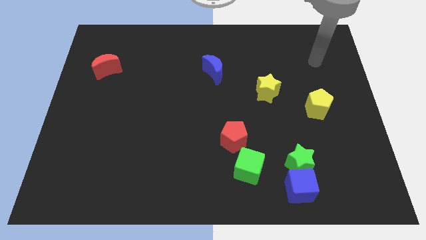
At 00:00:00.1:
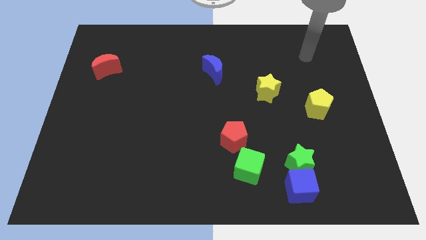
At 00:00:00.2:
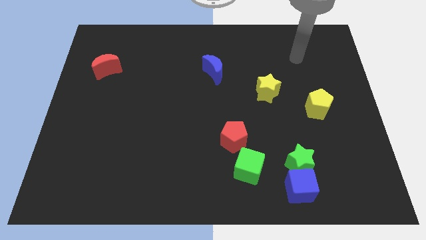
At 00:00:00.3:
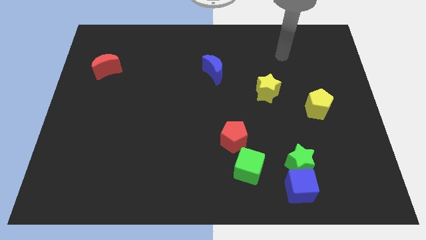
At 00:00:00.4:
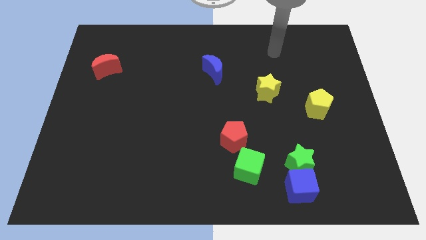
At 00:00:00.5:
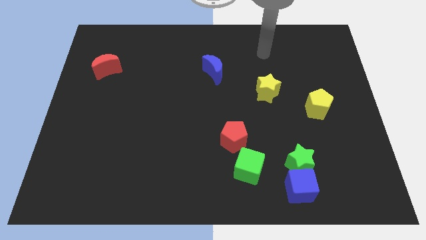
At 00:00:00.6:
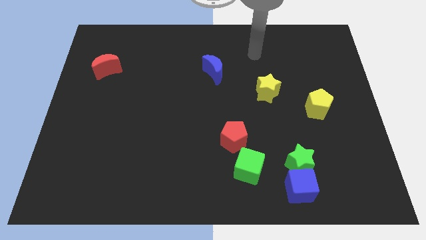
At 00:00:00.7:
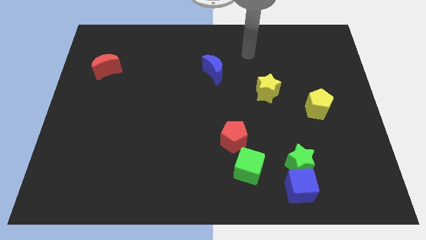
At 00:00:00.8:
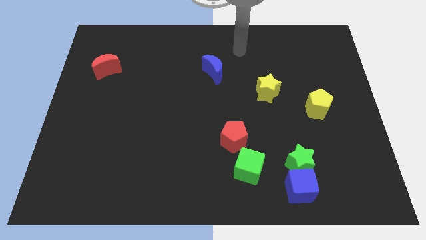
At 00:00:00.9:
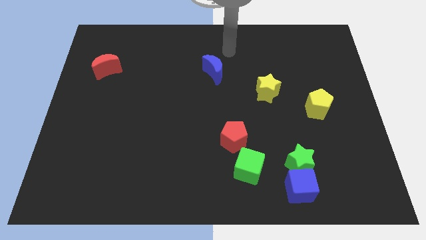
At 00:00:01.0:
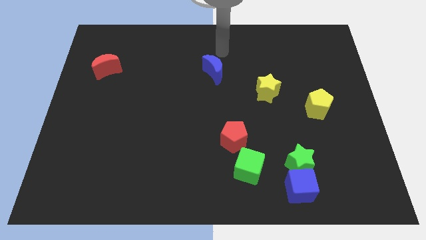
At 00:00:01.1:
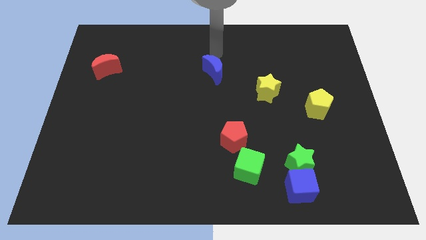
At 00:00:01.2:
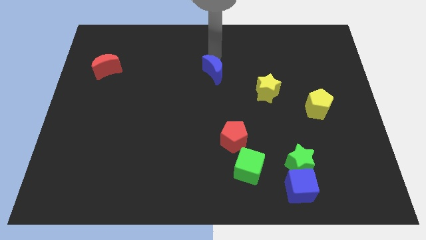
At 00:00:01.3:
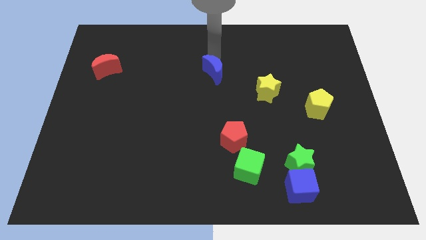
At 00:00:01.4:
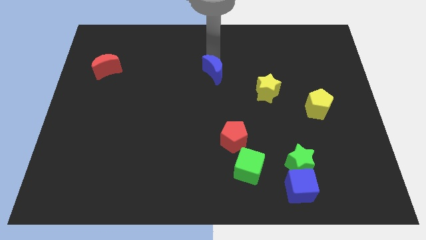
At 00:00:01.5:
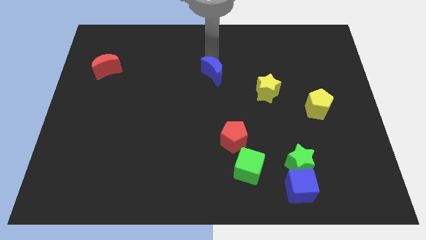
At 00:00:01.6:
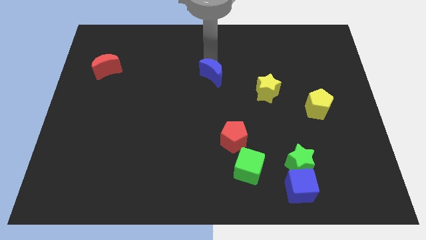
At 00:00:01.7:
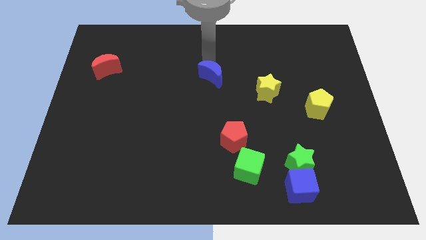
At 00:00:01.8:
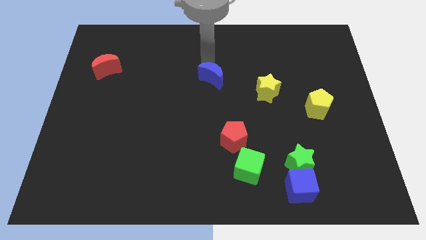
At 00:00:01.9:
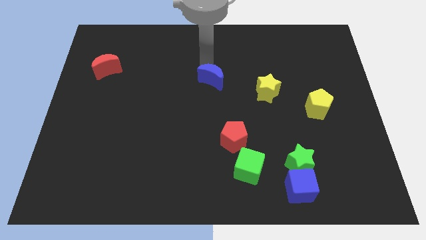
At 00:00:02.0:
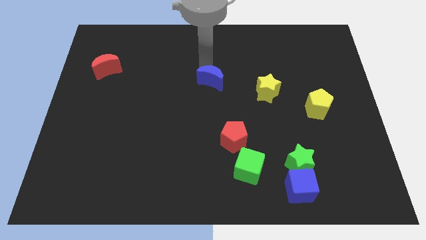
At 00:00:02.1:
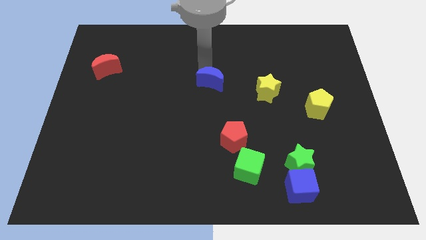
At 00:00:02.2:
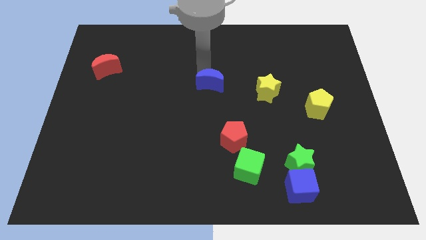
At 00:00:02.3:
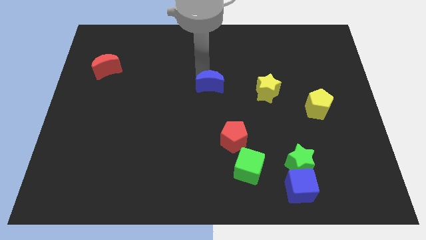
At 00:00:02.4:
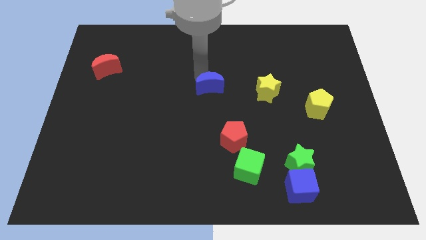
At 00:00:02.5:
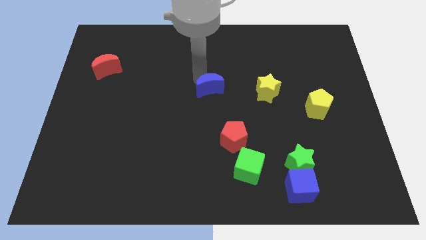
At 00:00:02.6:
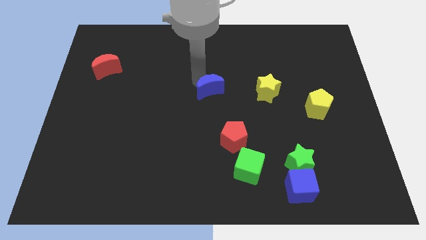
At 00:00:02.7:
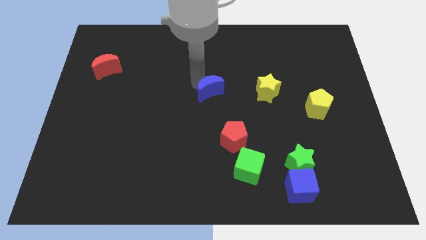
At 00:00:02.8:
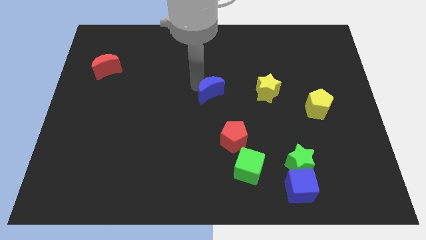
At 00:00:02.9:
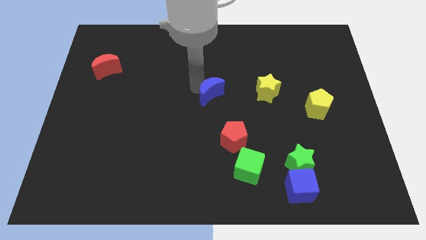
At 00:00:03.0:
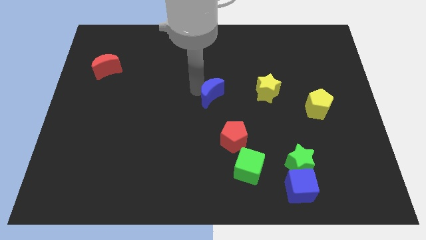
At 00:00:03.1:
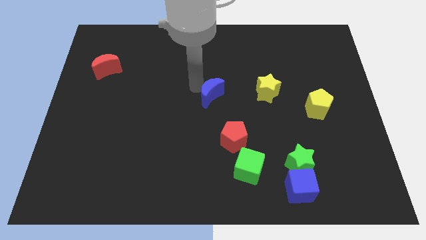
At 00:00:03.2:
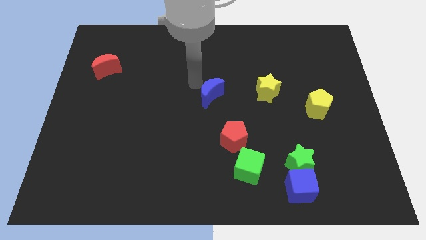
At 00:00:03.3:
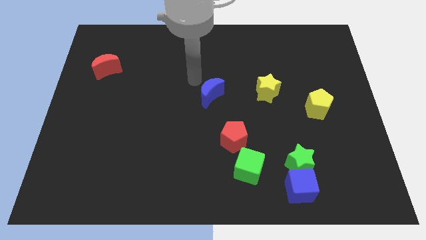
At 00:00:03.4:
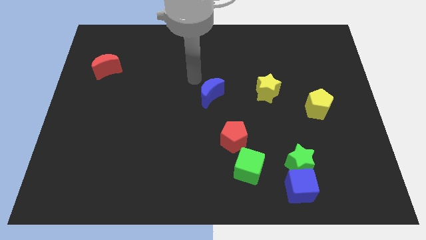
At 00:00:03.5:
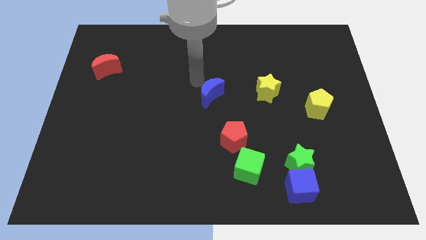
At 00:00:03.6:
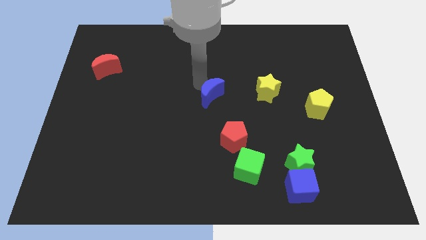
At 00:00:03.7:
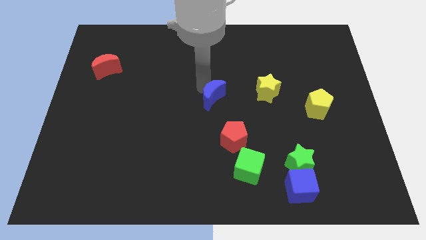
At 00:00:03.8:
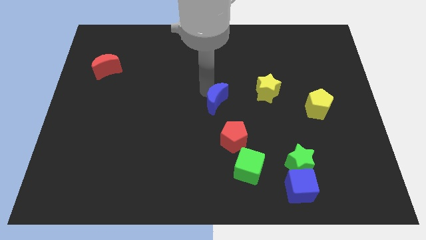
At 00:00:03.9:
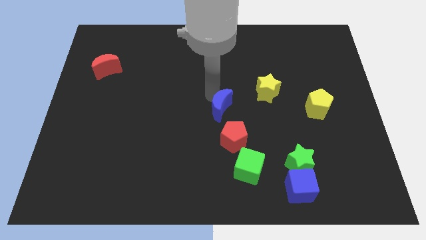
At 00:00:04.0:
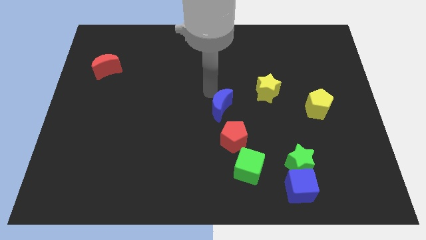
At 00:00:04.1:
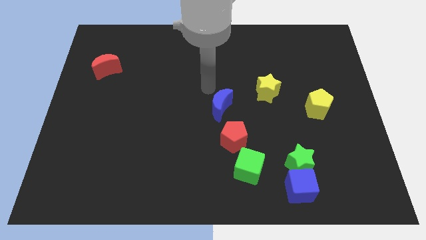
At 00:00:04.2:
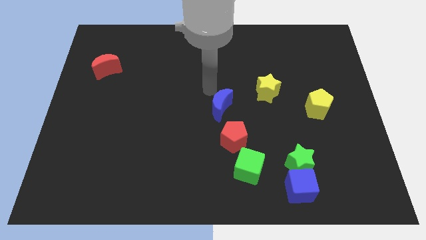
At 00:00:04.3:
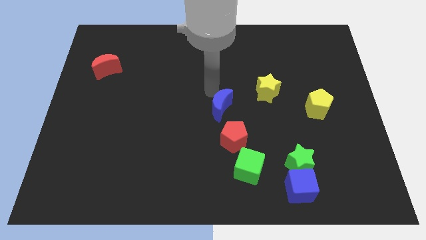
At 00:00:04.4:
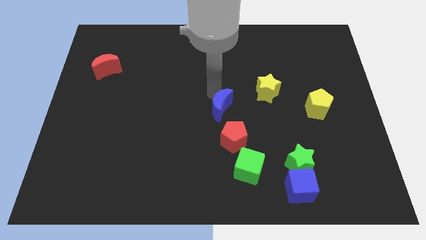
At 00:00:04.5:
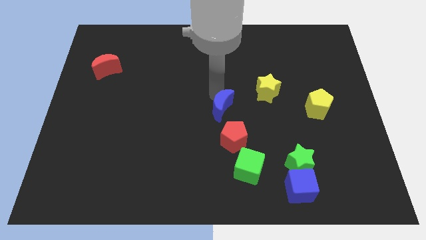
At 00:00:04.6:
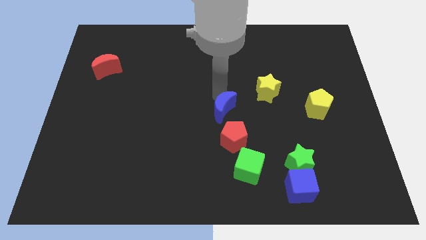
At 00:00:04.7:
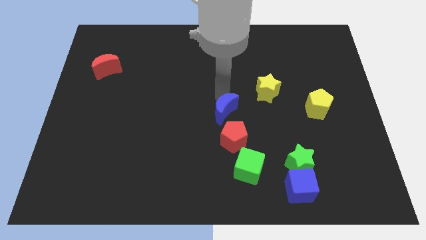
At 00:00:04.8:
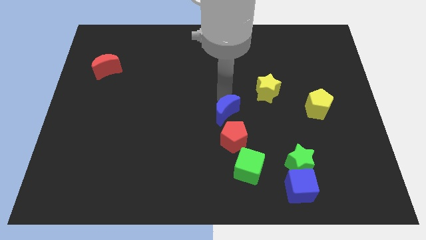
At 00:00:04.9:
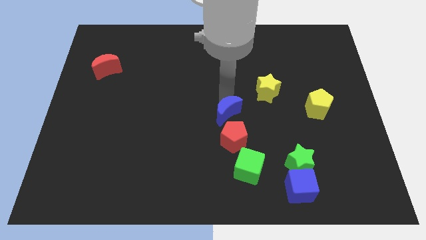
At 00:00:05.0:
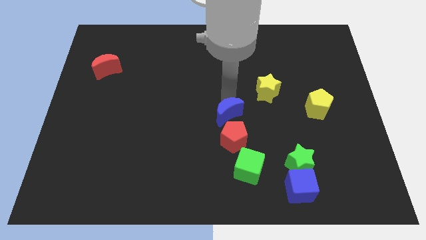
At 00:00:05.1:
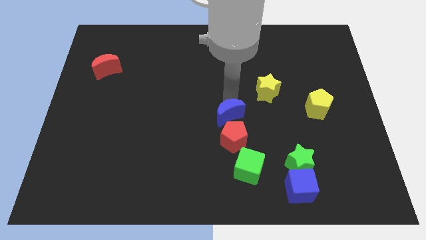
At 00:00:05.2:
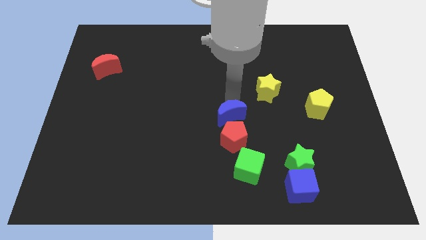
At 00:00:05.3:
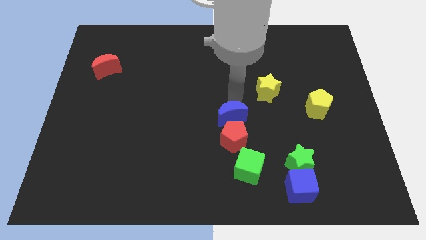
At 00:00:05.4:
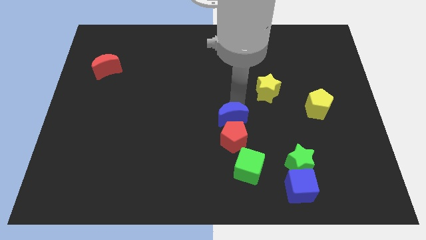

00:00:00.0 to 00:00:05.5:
move the blue moon close to the red pentagon

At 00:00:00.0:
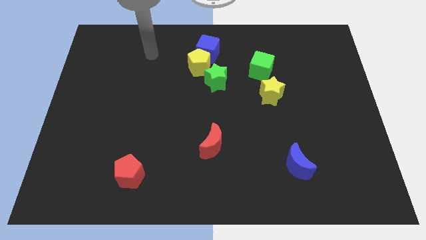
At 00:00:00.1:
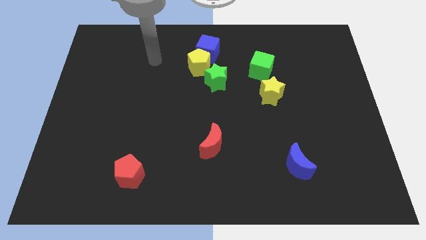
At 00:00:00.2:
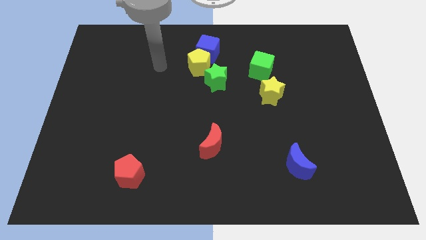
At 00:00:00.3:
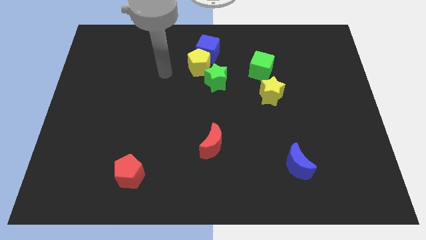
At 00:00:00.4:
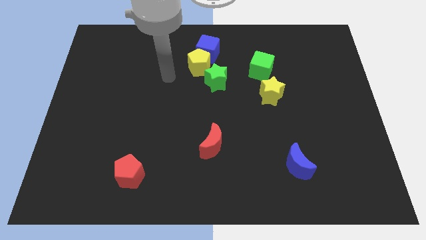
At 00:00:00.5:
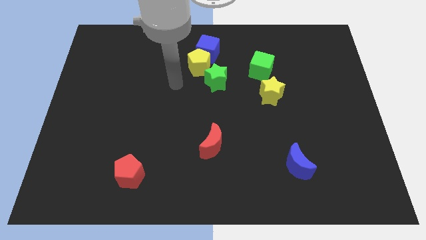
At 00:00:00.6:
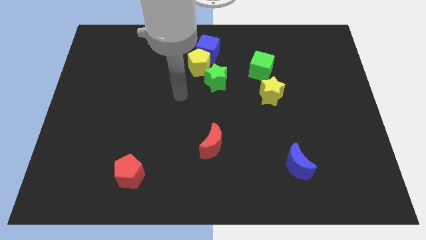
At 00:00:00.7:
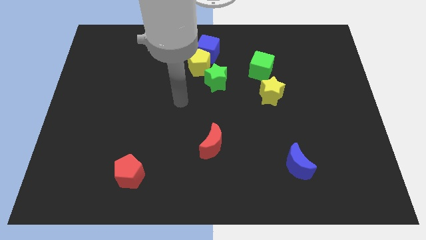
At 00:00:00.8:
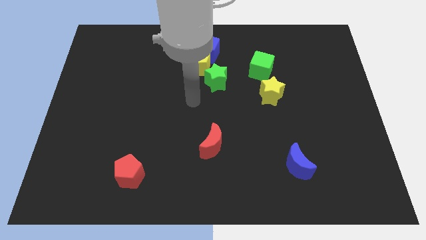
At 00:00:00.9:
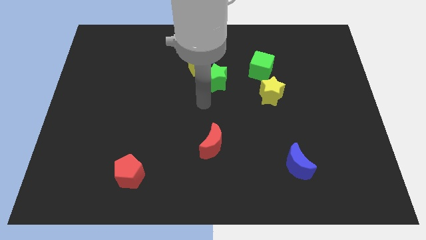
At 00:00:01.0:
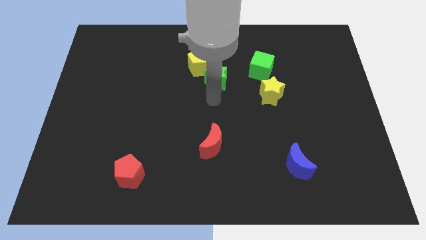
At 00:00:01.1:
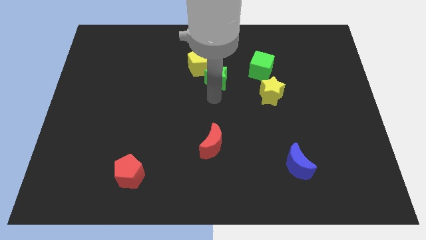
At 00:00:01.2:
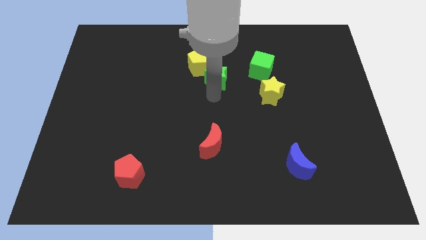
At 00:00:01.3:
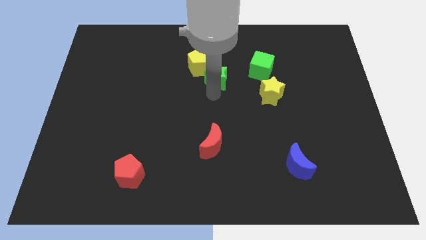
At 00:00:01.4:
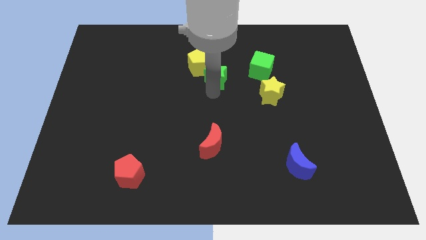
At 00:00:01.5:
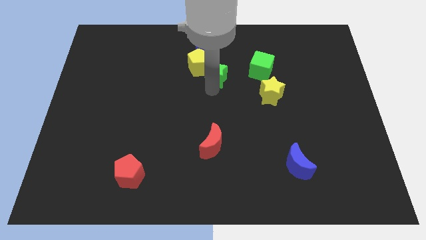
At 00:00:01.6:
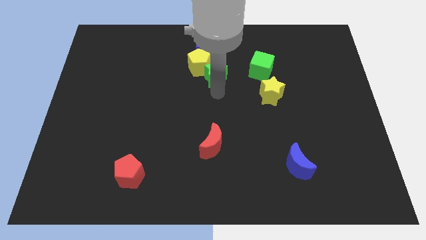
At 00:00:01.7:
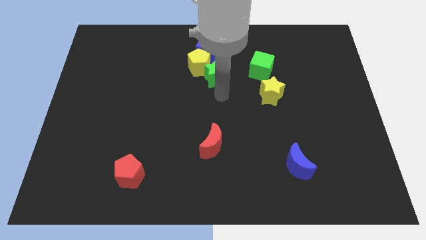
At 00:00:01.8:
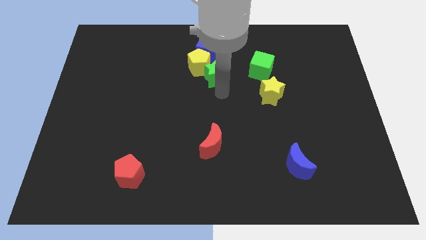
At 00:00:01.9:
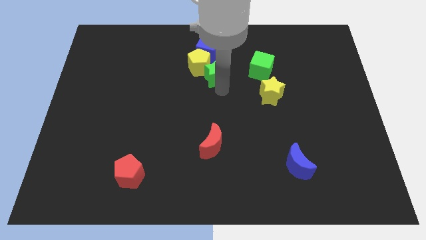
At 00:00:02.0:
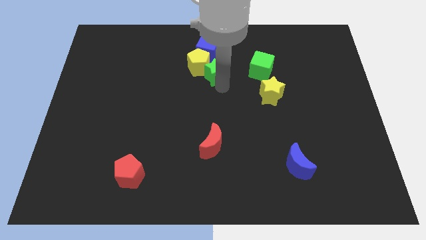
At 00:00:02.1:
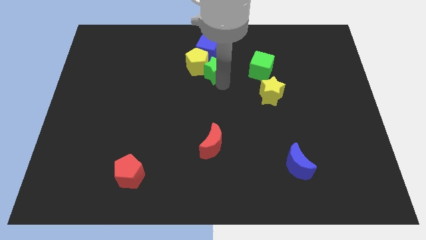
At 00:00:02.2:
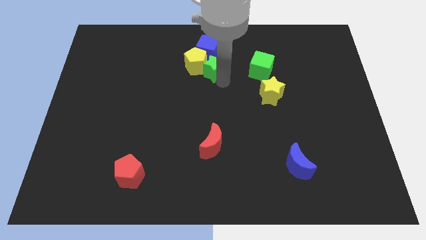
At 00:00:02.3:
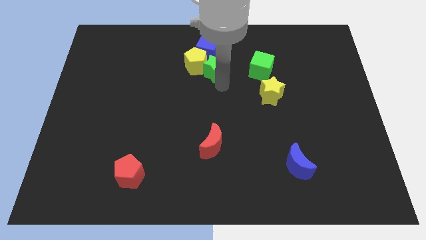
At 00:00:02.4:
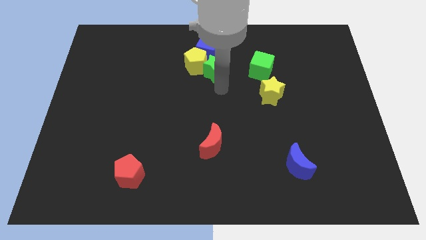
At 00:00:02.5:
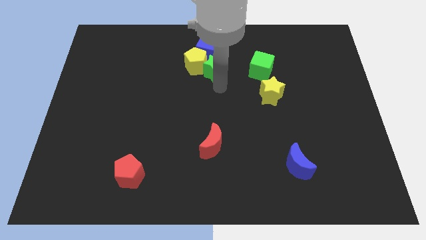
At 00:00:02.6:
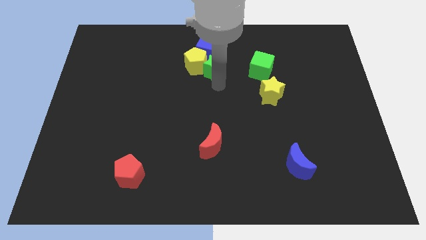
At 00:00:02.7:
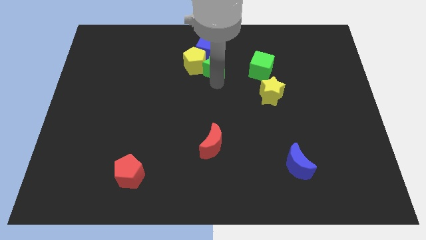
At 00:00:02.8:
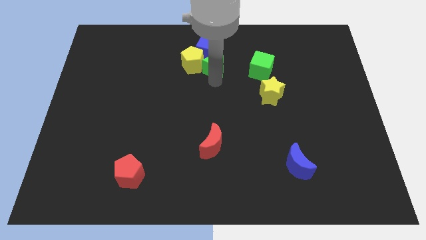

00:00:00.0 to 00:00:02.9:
move the green star to the blue cube
